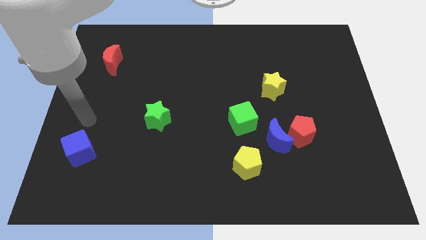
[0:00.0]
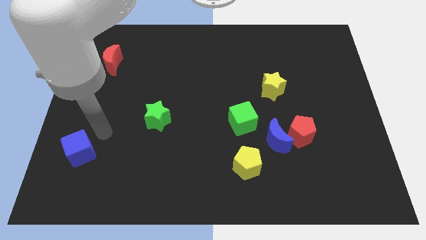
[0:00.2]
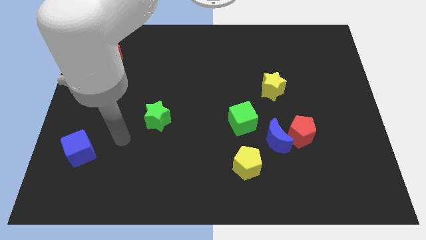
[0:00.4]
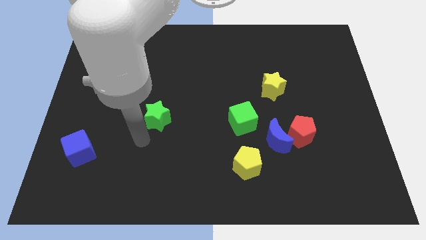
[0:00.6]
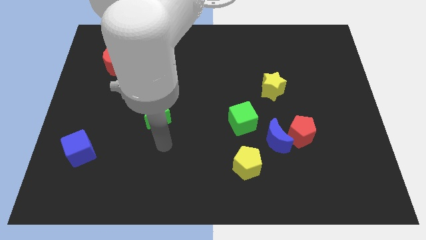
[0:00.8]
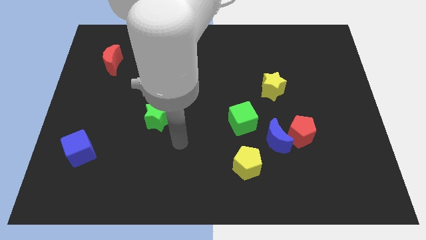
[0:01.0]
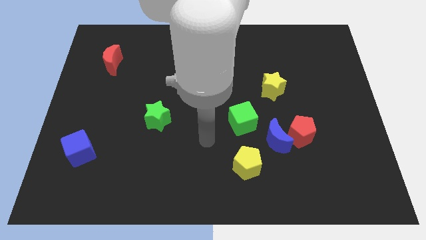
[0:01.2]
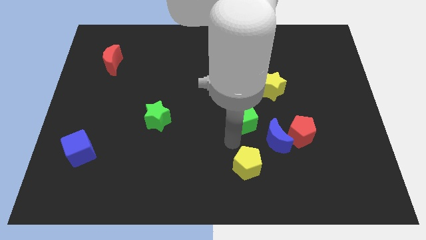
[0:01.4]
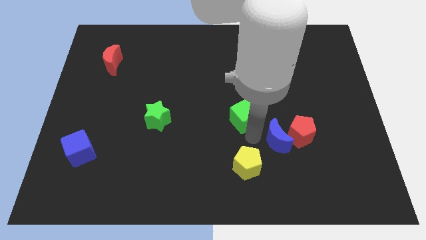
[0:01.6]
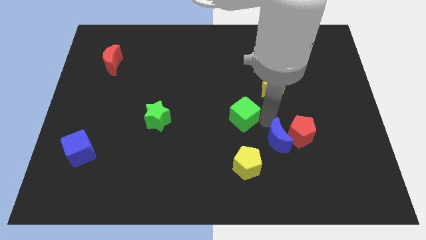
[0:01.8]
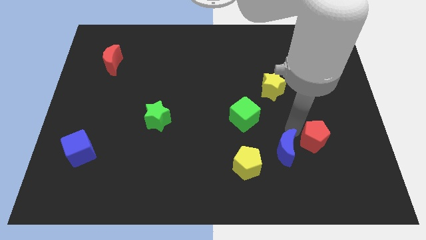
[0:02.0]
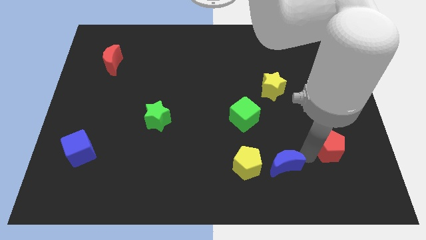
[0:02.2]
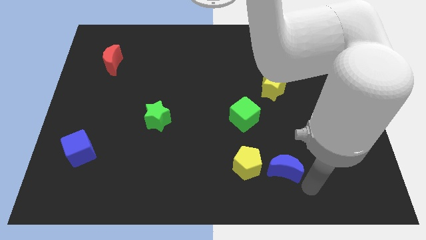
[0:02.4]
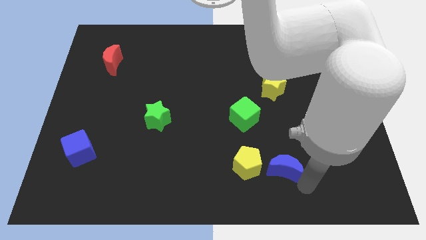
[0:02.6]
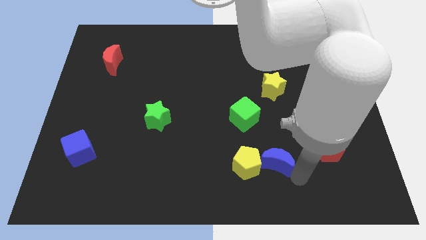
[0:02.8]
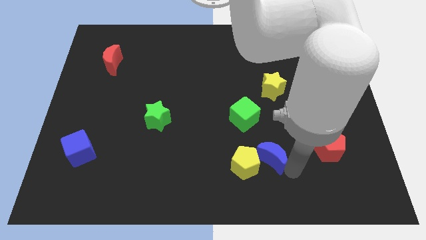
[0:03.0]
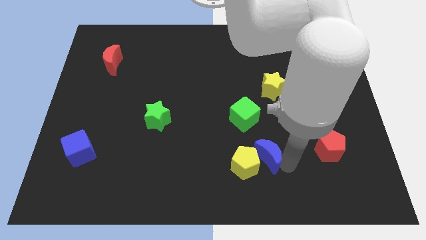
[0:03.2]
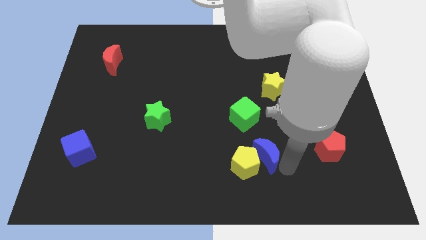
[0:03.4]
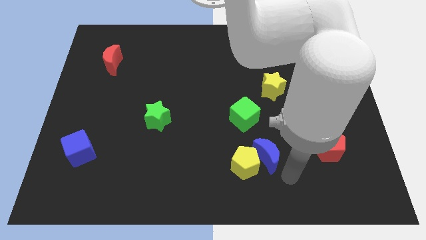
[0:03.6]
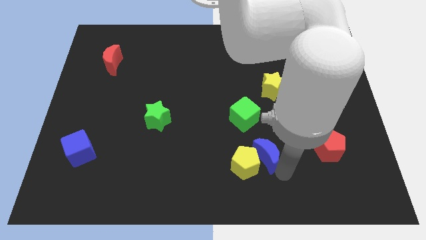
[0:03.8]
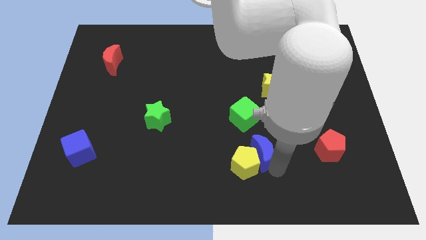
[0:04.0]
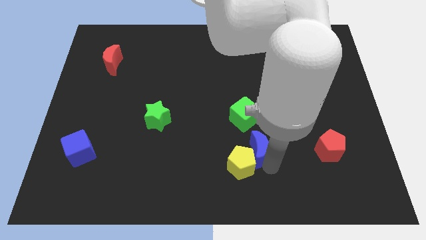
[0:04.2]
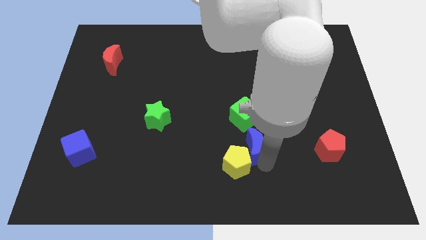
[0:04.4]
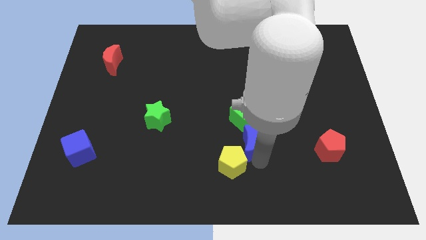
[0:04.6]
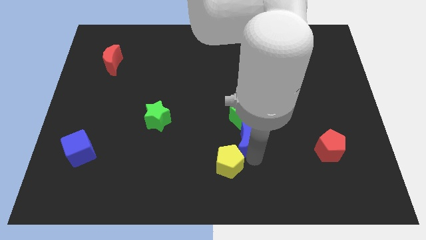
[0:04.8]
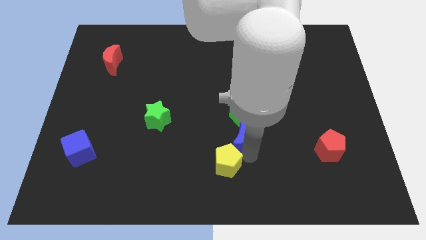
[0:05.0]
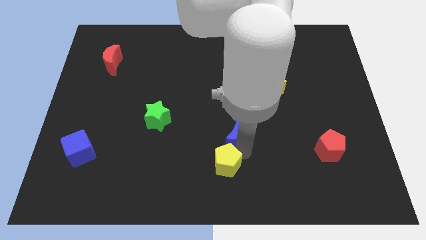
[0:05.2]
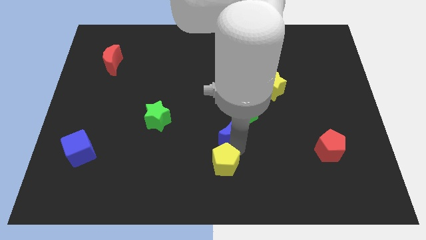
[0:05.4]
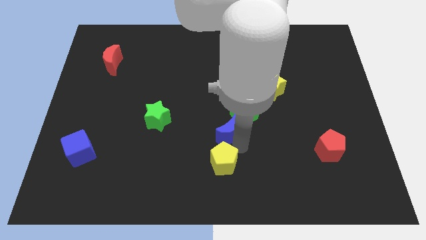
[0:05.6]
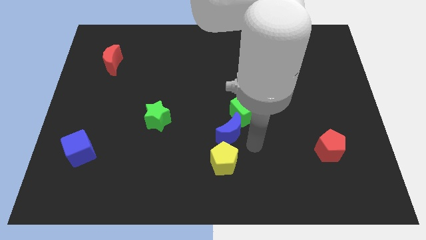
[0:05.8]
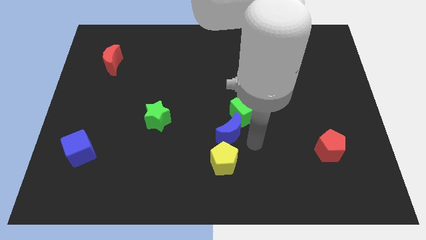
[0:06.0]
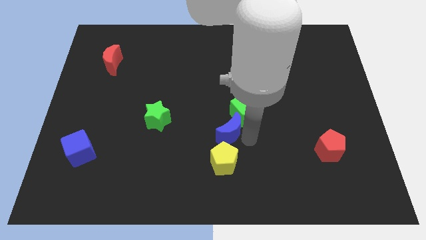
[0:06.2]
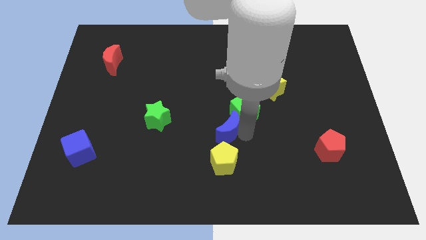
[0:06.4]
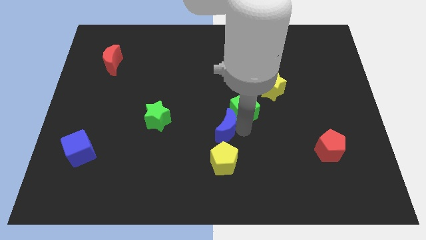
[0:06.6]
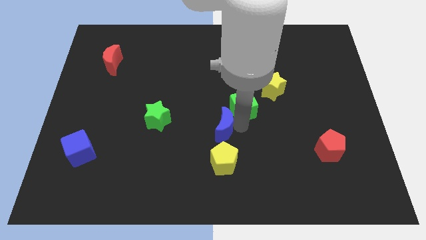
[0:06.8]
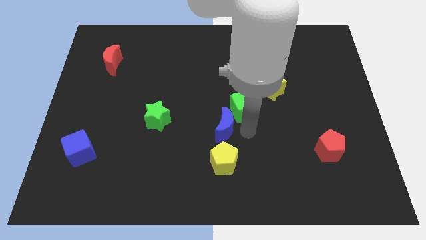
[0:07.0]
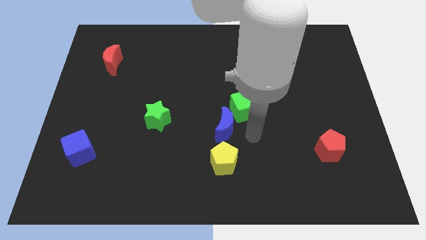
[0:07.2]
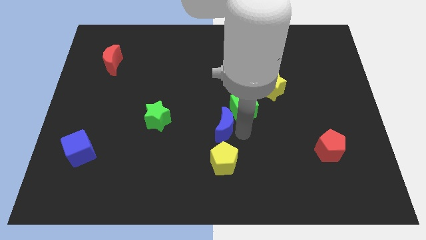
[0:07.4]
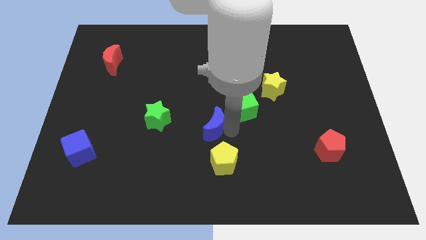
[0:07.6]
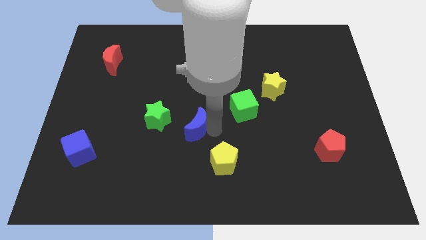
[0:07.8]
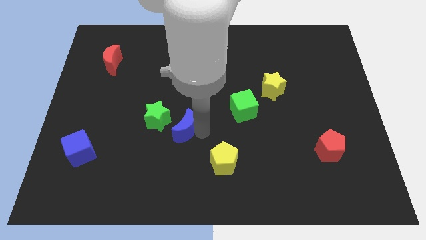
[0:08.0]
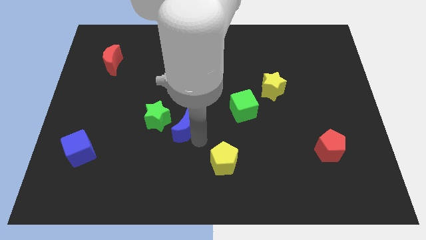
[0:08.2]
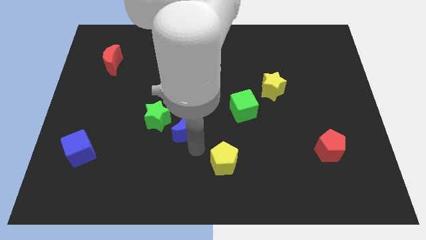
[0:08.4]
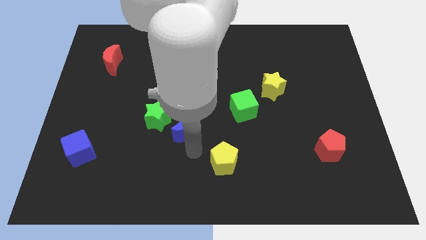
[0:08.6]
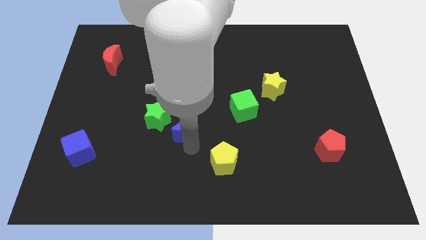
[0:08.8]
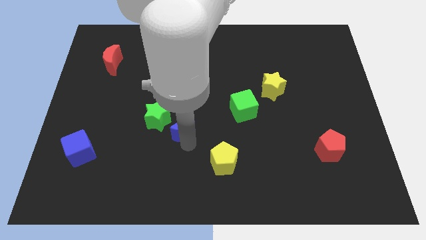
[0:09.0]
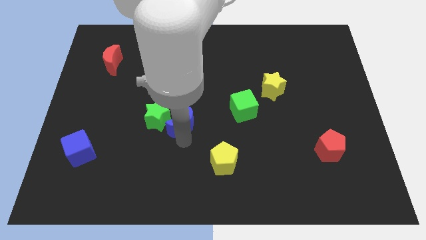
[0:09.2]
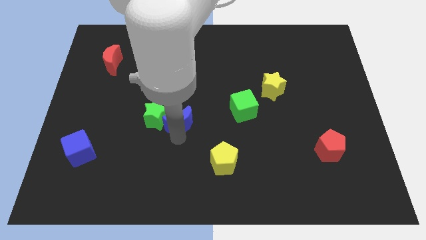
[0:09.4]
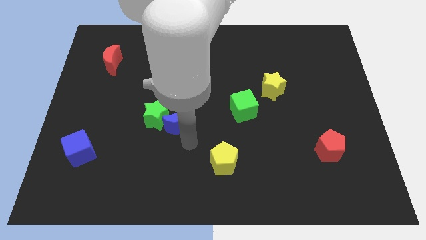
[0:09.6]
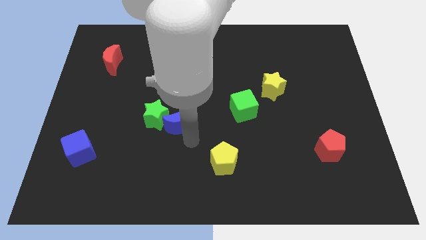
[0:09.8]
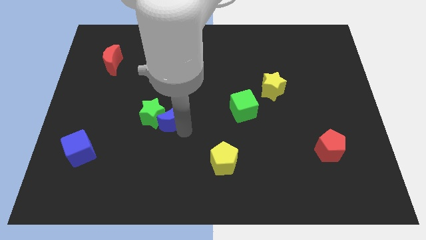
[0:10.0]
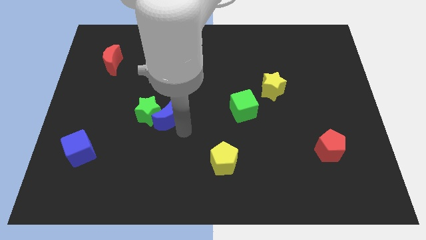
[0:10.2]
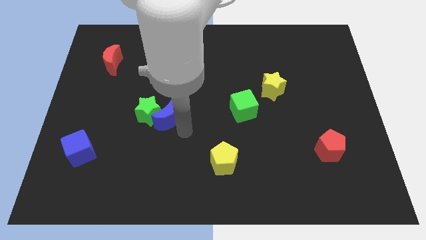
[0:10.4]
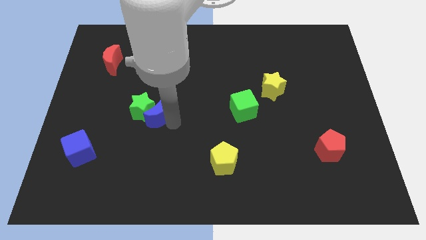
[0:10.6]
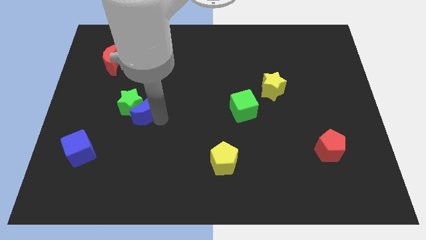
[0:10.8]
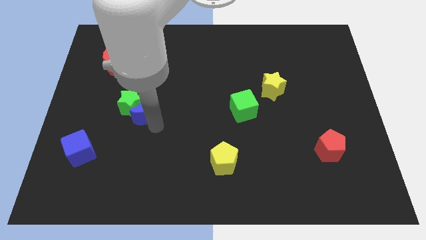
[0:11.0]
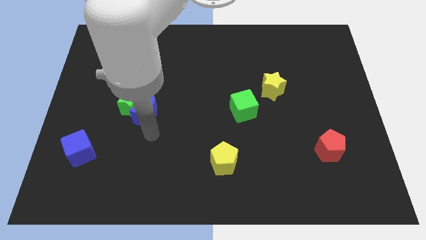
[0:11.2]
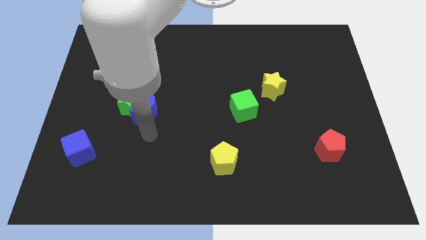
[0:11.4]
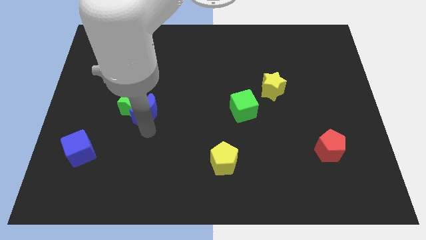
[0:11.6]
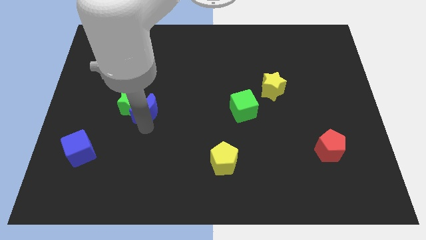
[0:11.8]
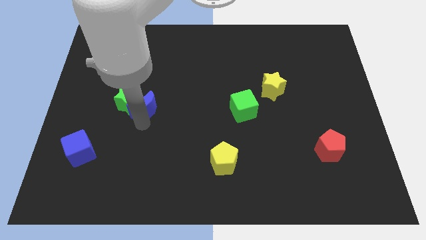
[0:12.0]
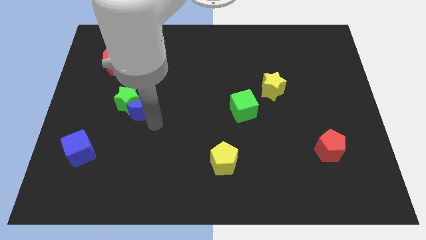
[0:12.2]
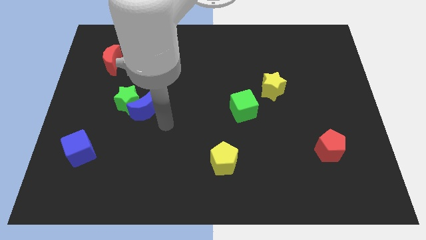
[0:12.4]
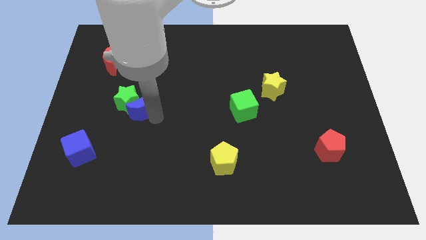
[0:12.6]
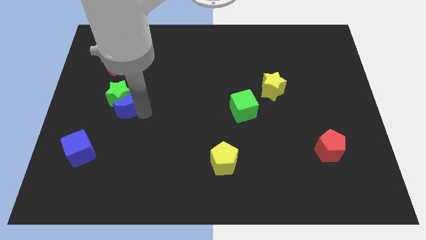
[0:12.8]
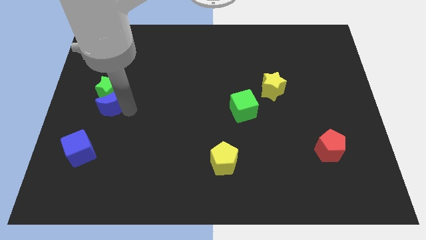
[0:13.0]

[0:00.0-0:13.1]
slide the blue moon to the bottom of the red moon

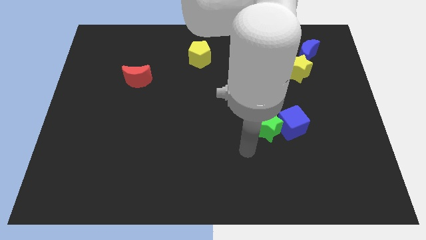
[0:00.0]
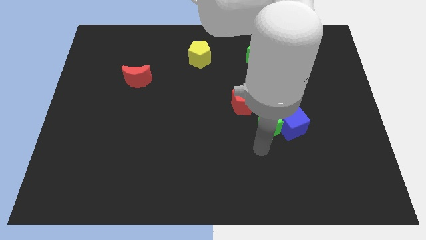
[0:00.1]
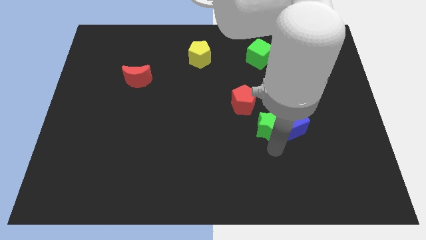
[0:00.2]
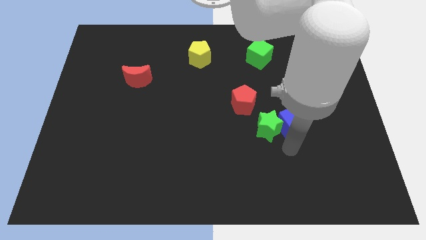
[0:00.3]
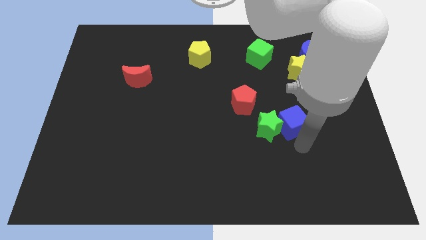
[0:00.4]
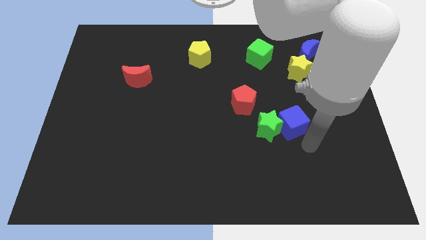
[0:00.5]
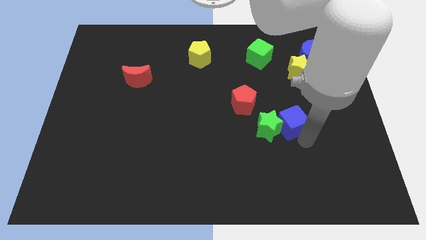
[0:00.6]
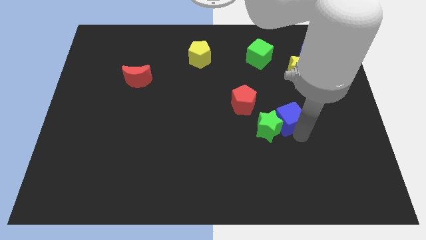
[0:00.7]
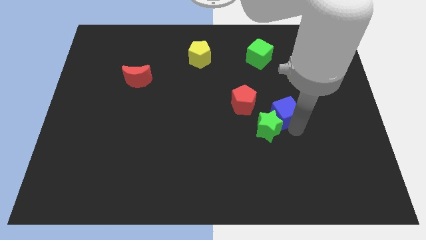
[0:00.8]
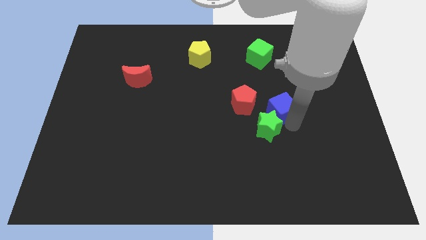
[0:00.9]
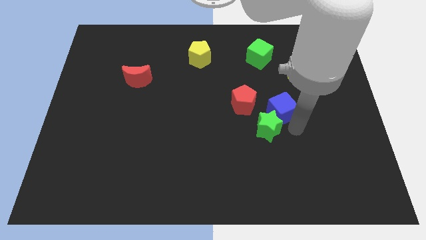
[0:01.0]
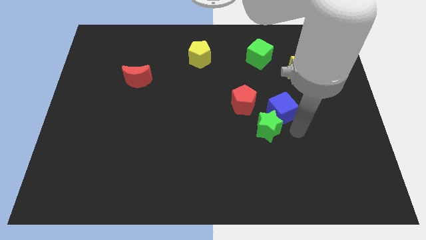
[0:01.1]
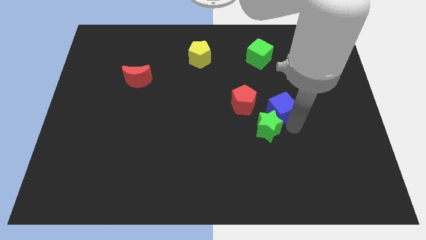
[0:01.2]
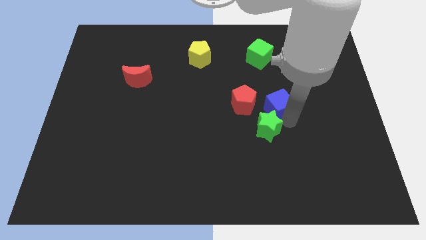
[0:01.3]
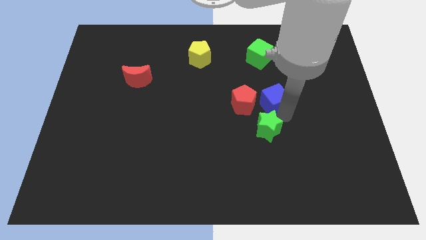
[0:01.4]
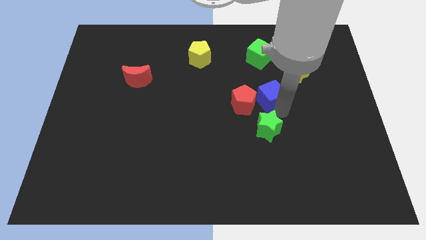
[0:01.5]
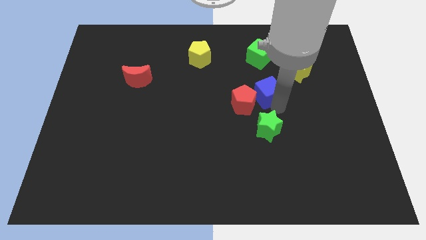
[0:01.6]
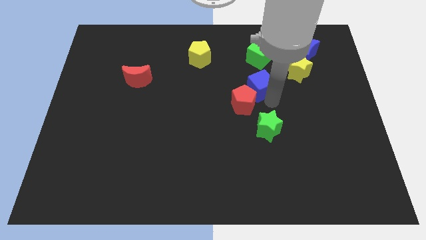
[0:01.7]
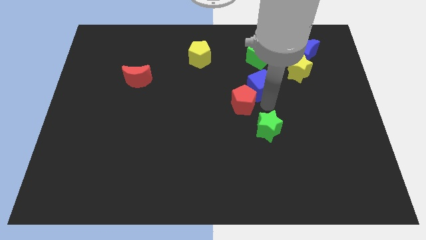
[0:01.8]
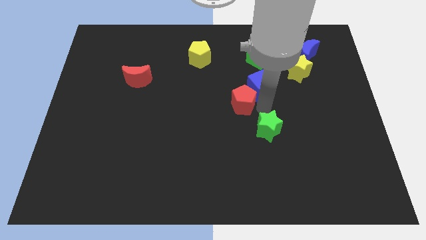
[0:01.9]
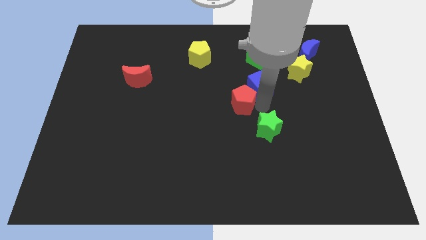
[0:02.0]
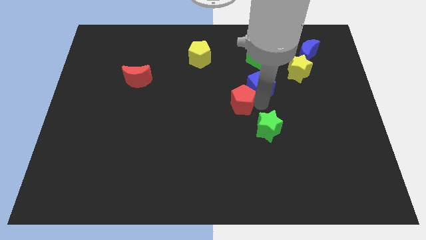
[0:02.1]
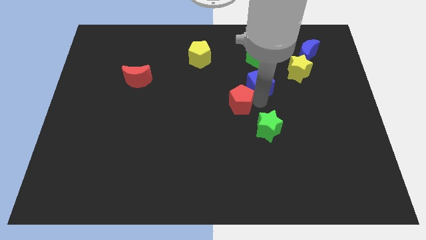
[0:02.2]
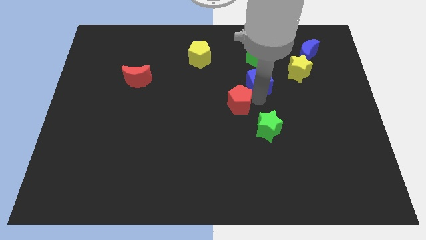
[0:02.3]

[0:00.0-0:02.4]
push the blue cube left of the yellow star
